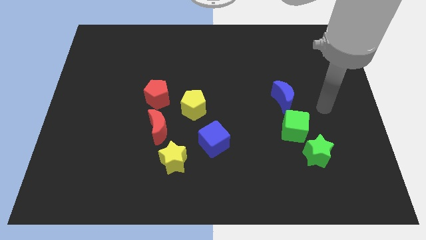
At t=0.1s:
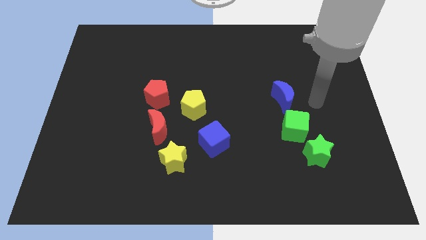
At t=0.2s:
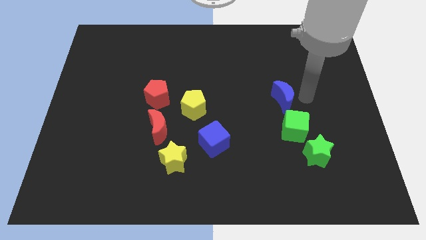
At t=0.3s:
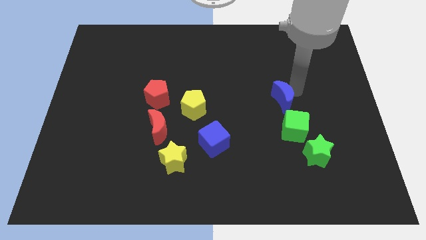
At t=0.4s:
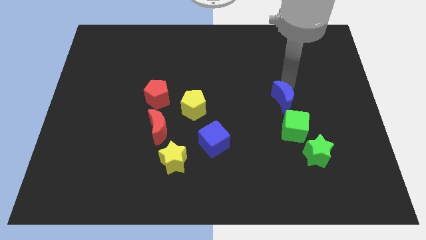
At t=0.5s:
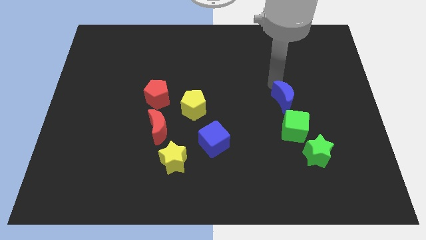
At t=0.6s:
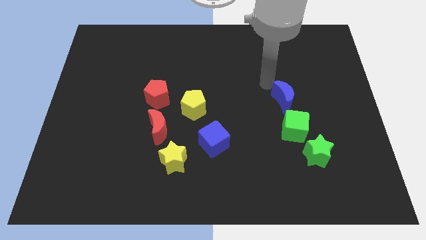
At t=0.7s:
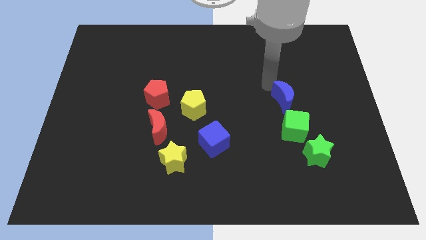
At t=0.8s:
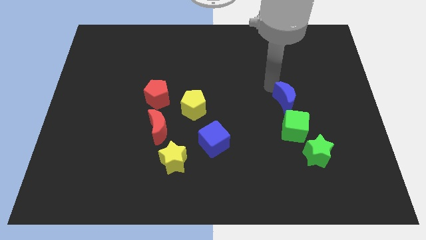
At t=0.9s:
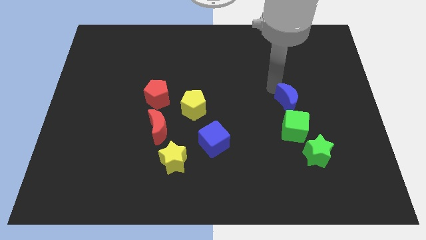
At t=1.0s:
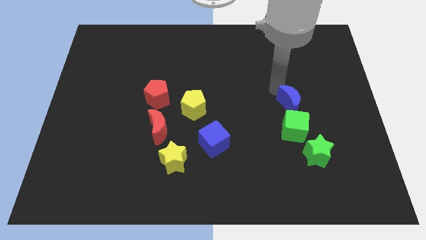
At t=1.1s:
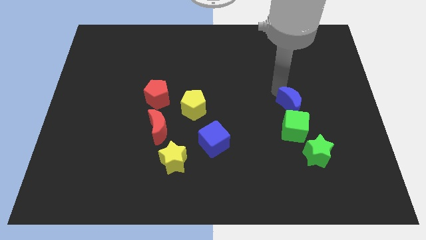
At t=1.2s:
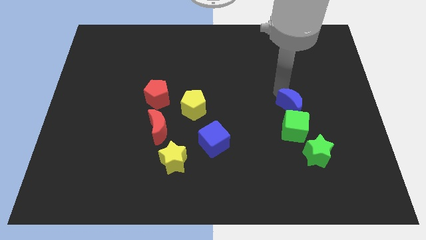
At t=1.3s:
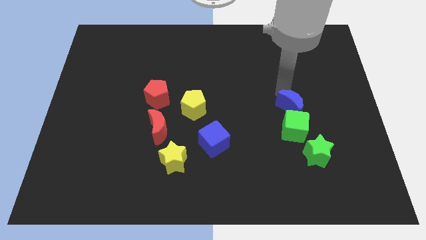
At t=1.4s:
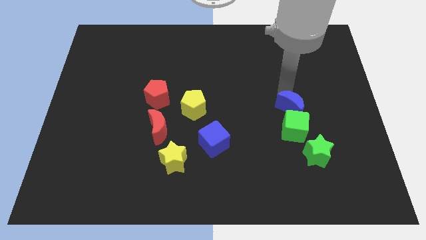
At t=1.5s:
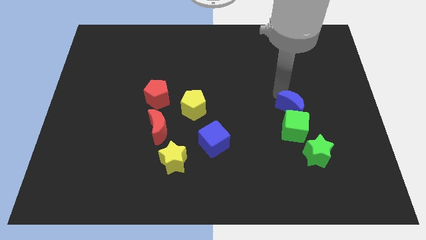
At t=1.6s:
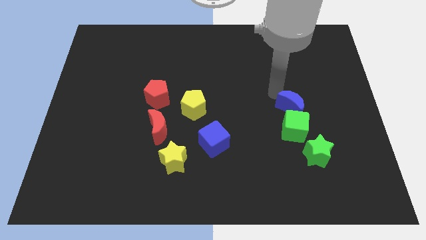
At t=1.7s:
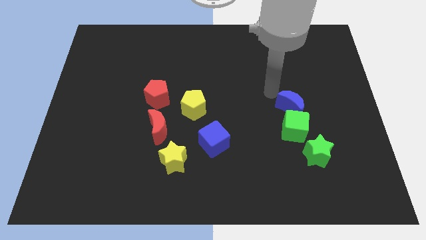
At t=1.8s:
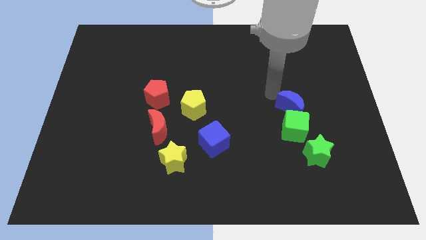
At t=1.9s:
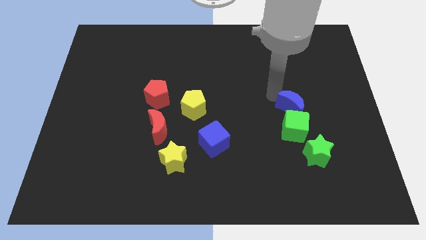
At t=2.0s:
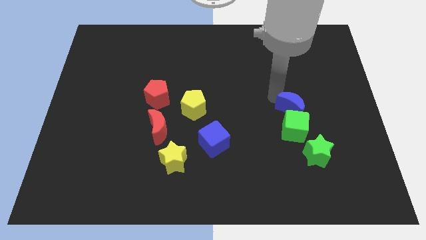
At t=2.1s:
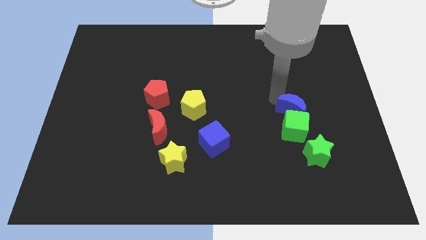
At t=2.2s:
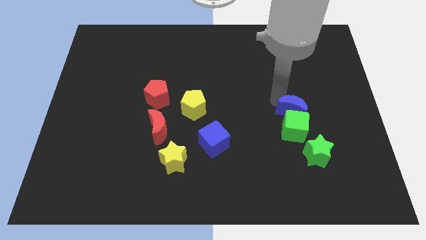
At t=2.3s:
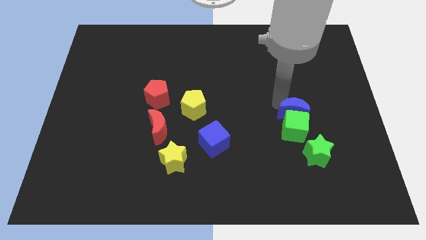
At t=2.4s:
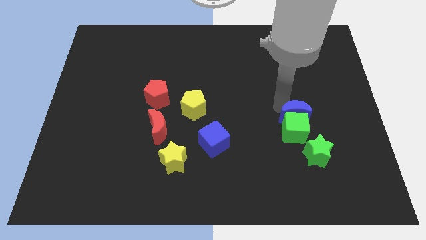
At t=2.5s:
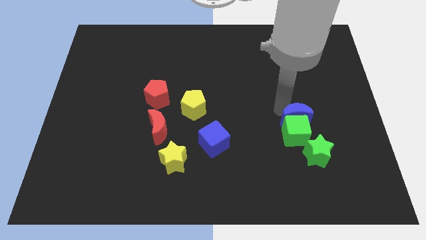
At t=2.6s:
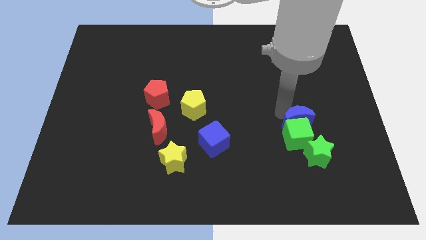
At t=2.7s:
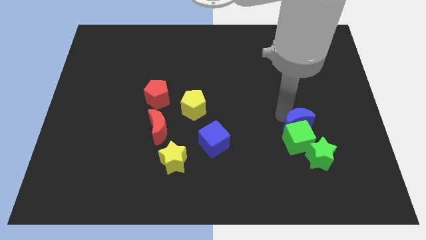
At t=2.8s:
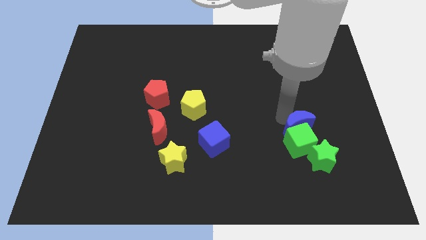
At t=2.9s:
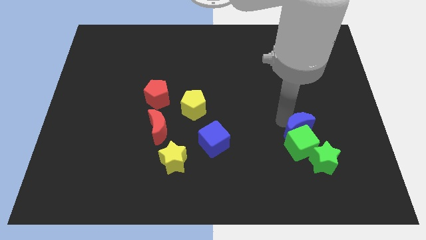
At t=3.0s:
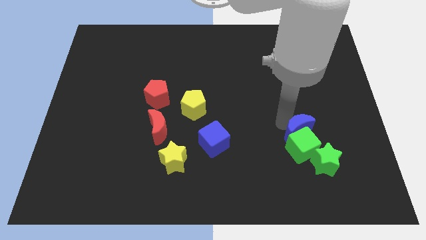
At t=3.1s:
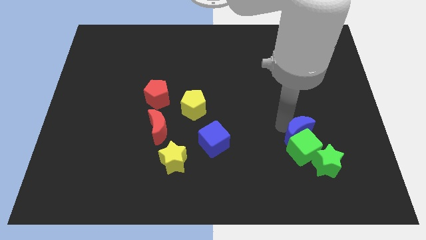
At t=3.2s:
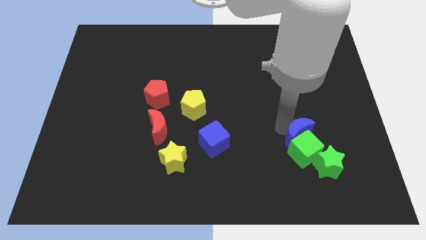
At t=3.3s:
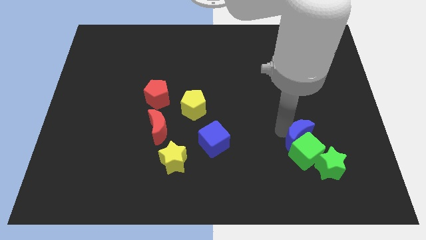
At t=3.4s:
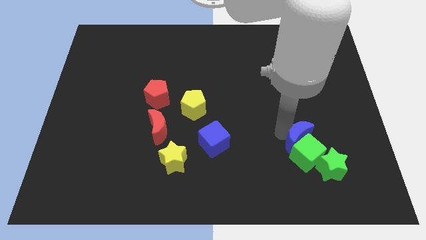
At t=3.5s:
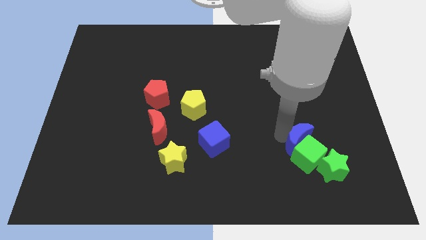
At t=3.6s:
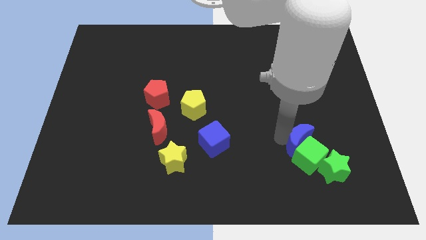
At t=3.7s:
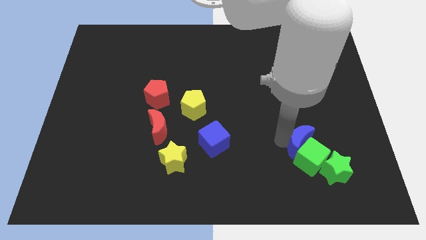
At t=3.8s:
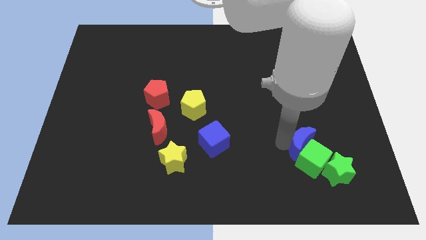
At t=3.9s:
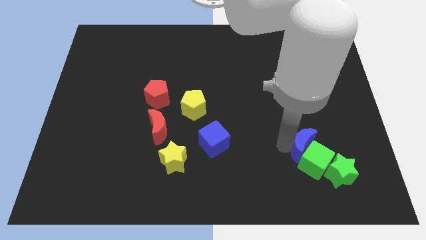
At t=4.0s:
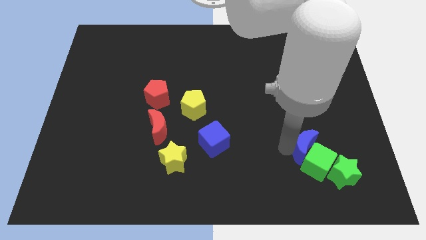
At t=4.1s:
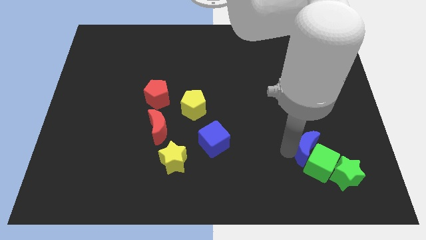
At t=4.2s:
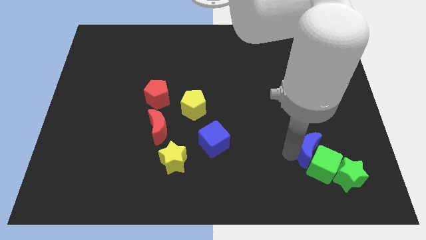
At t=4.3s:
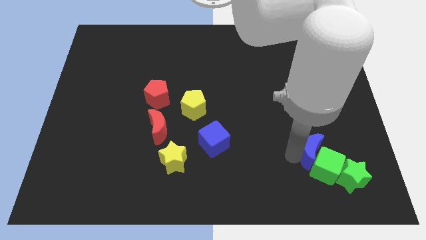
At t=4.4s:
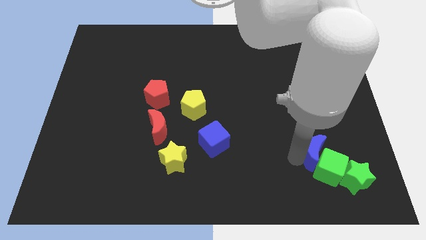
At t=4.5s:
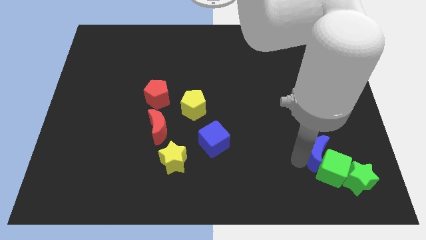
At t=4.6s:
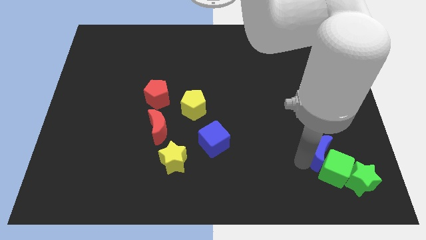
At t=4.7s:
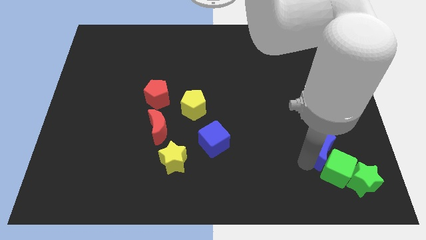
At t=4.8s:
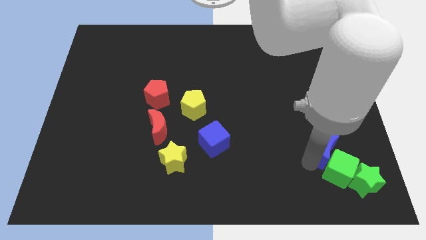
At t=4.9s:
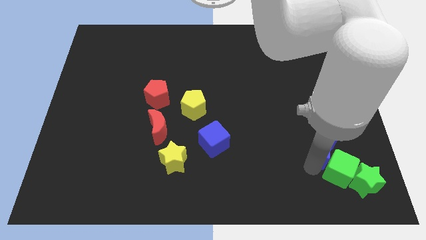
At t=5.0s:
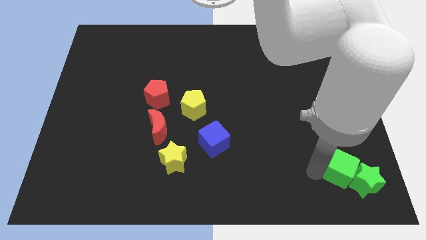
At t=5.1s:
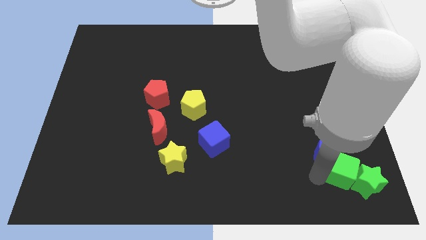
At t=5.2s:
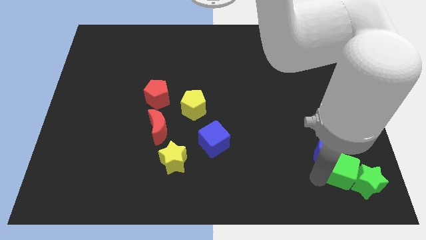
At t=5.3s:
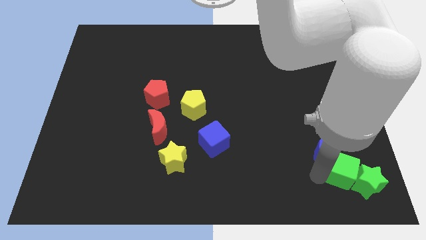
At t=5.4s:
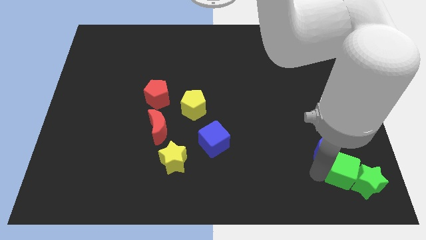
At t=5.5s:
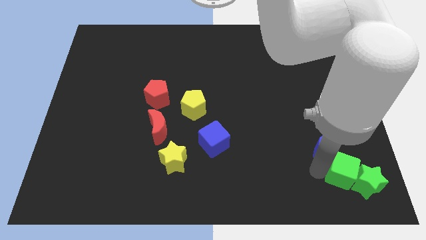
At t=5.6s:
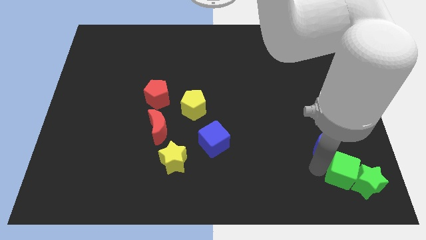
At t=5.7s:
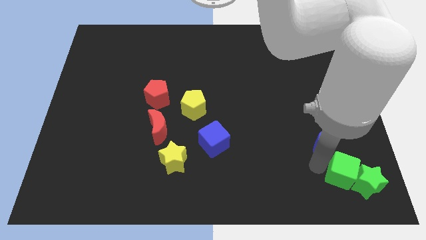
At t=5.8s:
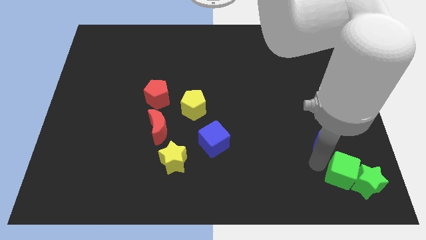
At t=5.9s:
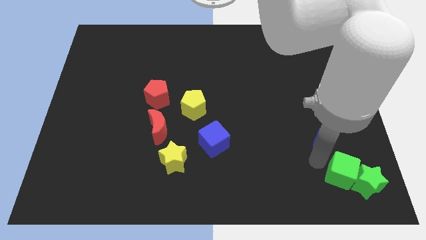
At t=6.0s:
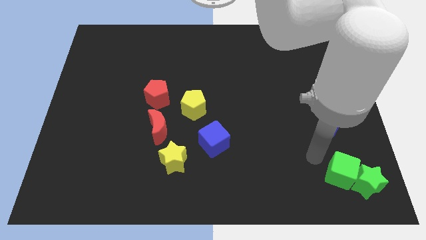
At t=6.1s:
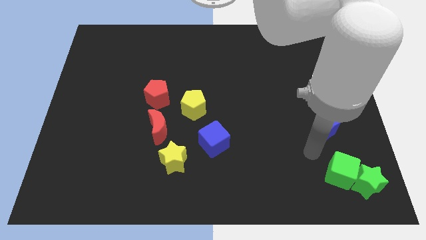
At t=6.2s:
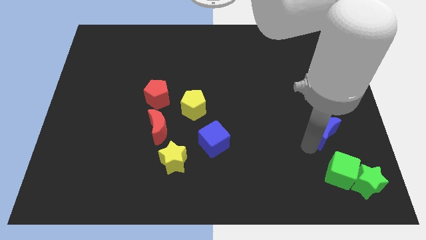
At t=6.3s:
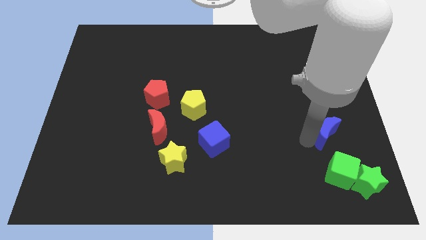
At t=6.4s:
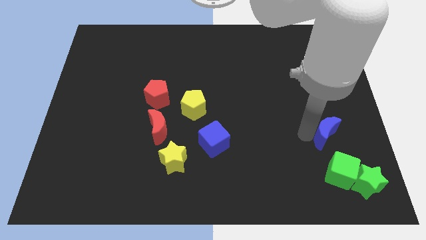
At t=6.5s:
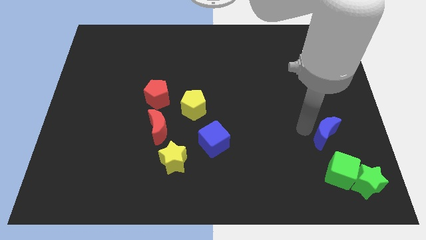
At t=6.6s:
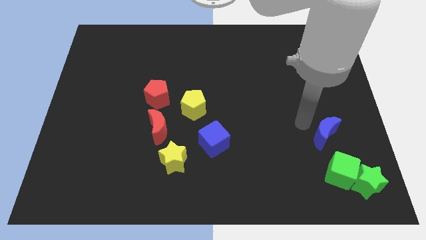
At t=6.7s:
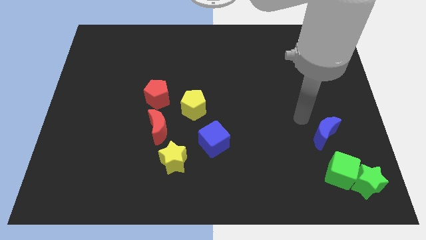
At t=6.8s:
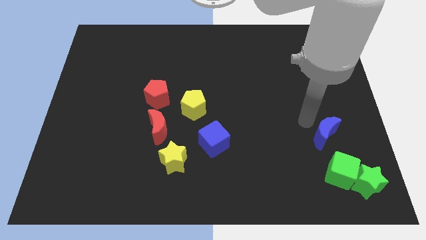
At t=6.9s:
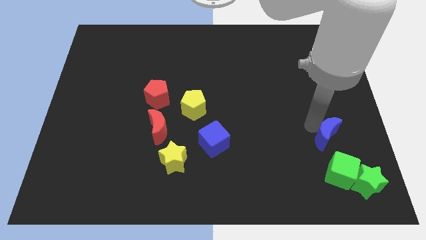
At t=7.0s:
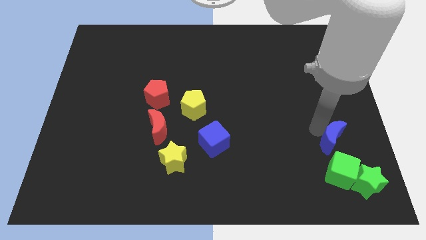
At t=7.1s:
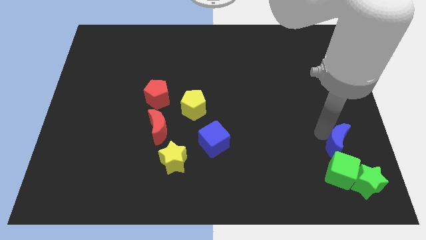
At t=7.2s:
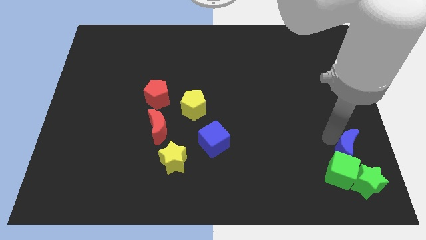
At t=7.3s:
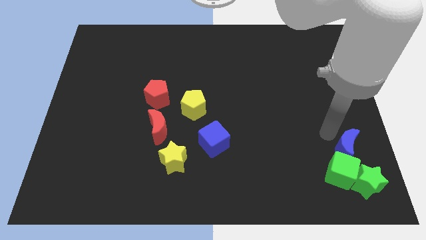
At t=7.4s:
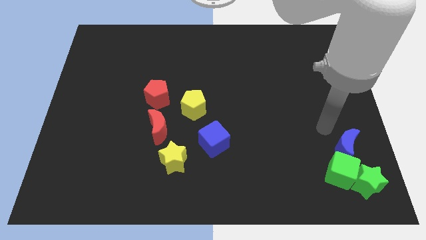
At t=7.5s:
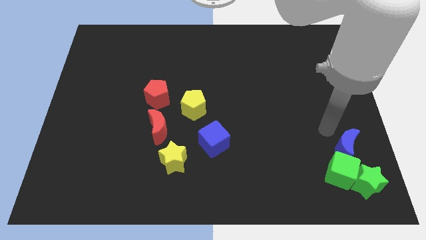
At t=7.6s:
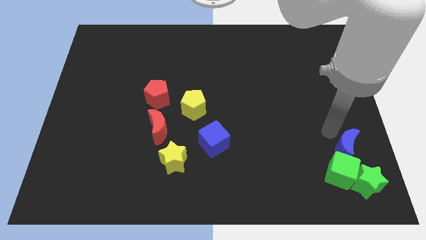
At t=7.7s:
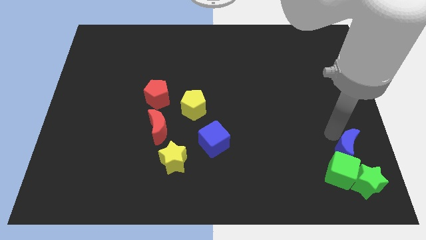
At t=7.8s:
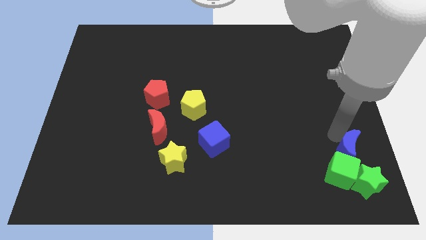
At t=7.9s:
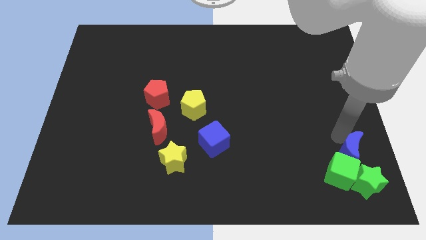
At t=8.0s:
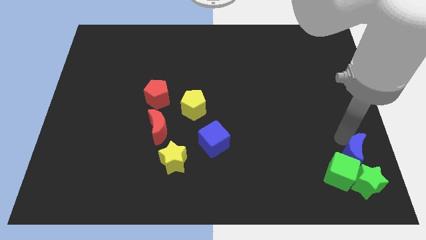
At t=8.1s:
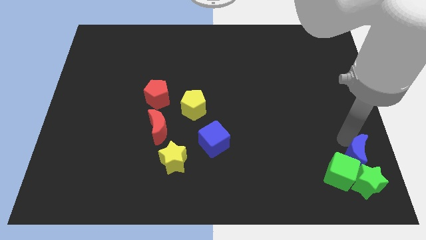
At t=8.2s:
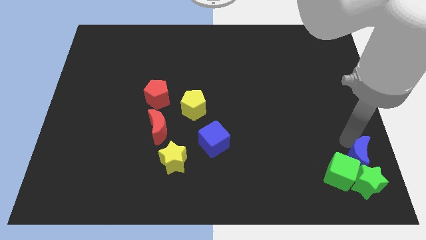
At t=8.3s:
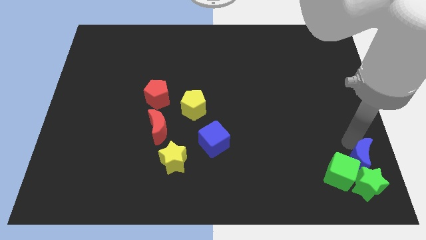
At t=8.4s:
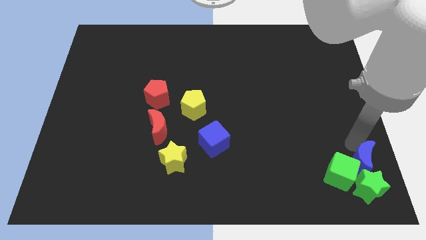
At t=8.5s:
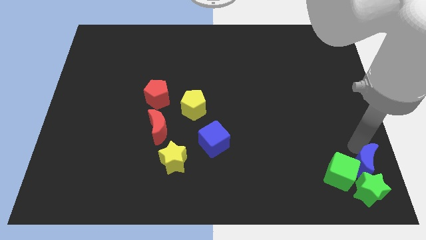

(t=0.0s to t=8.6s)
slide the blue moon to the bottom right
